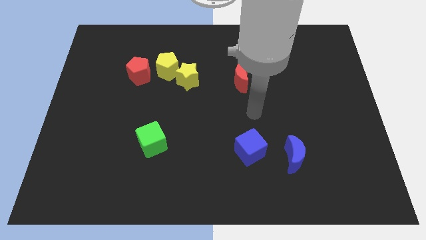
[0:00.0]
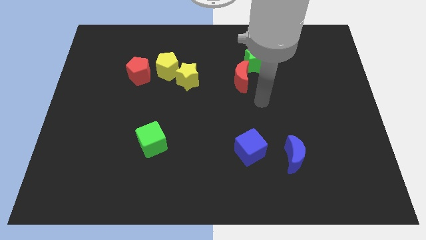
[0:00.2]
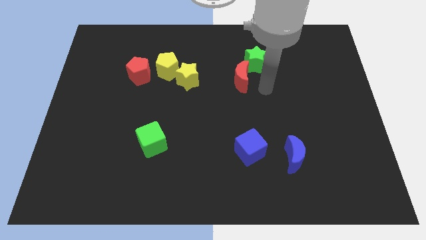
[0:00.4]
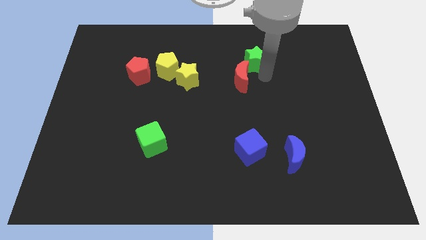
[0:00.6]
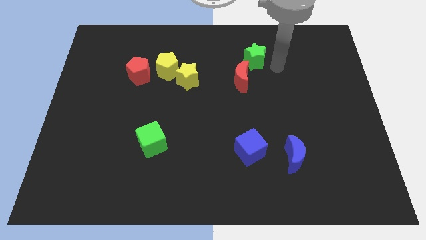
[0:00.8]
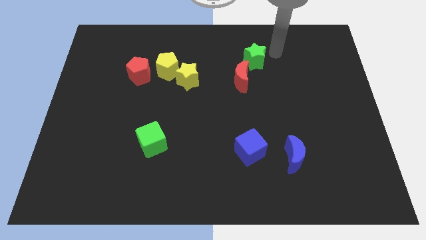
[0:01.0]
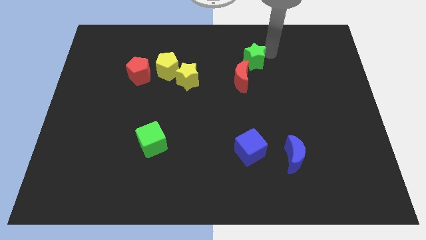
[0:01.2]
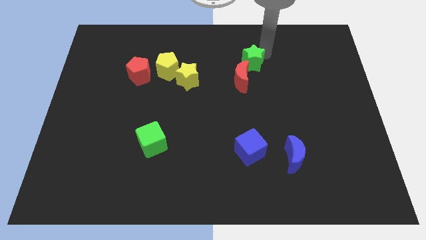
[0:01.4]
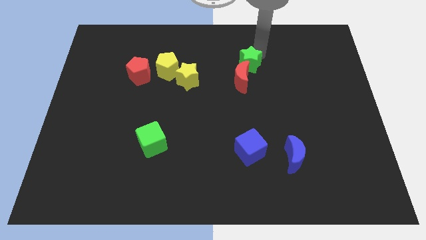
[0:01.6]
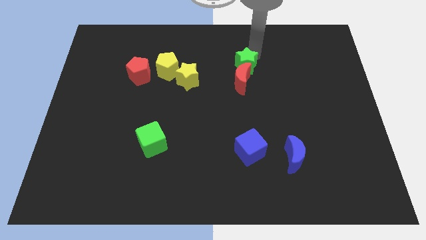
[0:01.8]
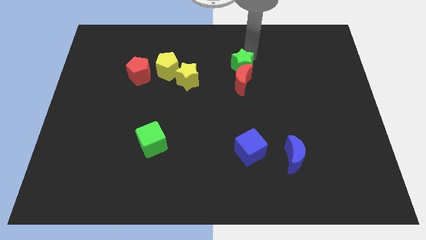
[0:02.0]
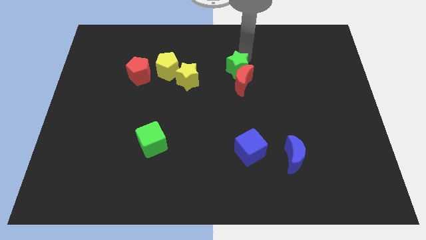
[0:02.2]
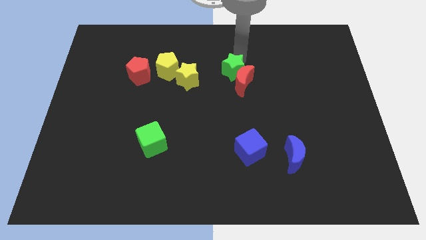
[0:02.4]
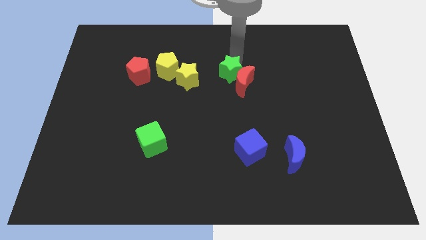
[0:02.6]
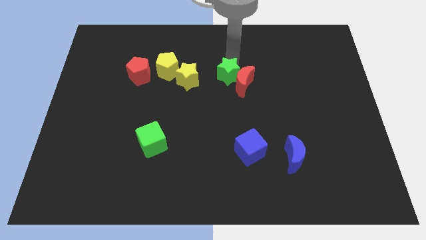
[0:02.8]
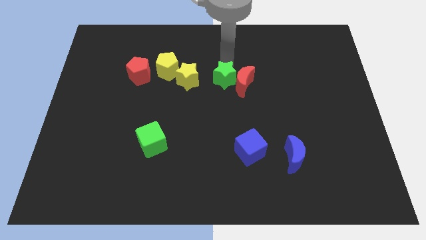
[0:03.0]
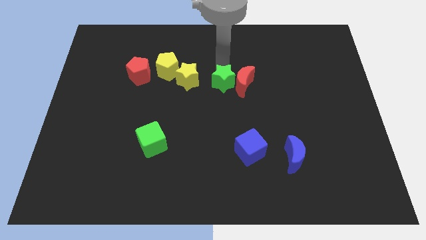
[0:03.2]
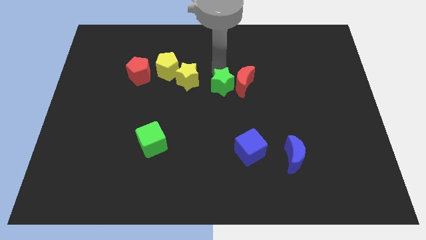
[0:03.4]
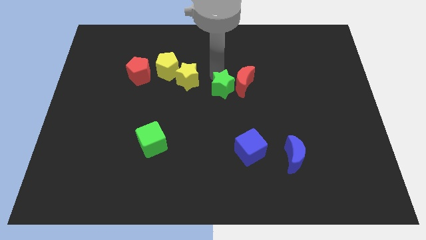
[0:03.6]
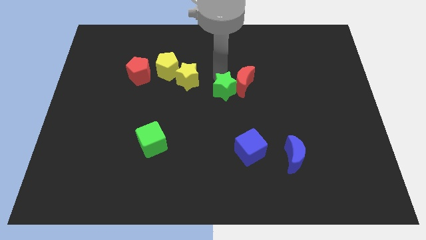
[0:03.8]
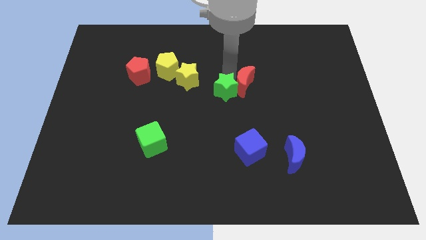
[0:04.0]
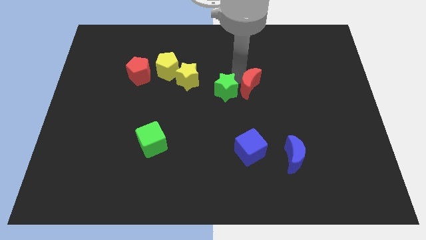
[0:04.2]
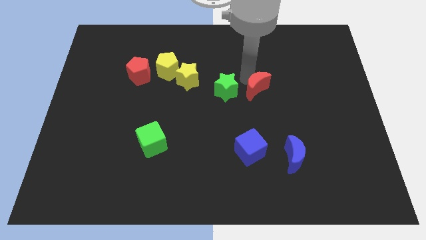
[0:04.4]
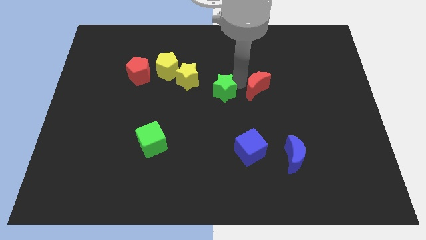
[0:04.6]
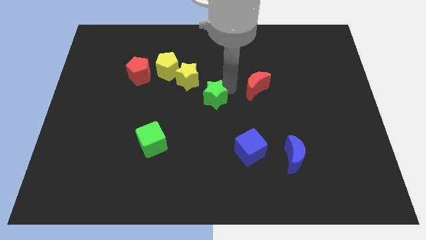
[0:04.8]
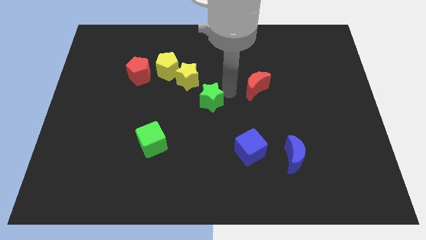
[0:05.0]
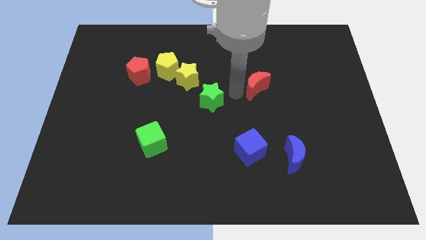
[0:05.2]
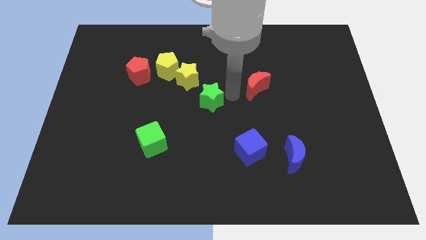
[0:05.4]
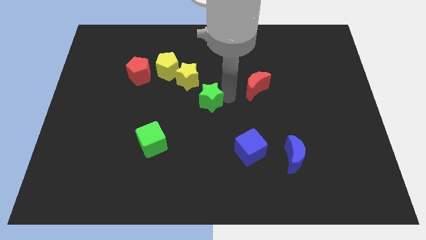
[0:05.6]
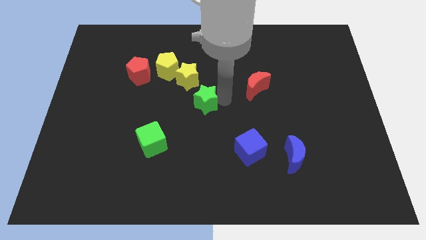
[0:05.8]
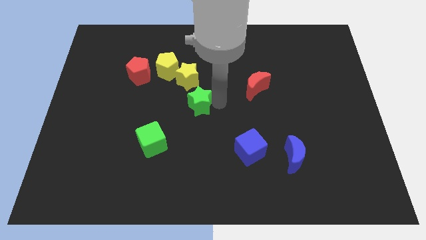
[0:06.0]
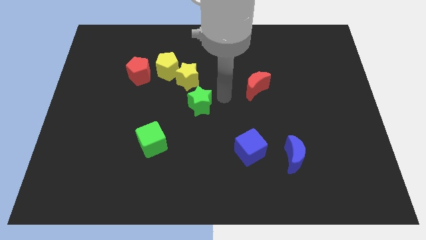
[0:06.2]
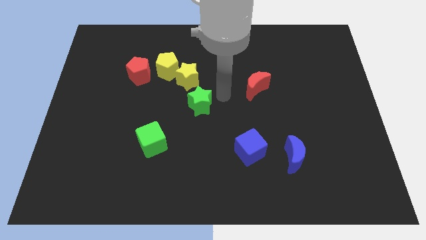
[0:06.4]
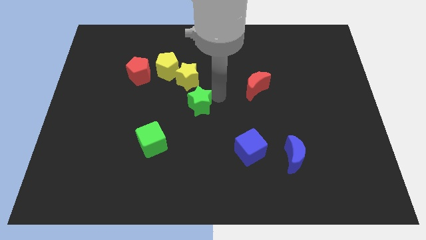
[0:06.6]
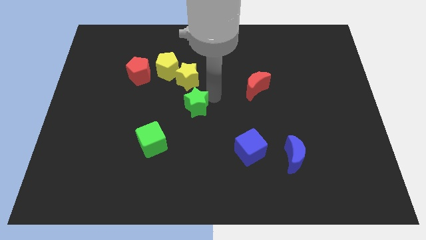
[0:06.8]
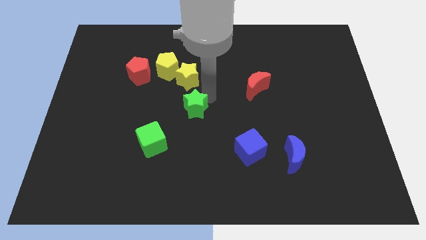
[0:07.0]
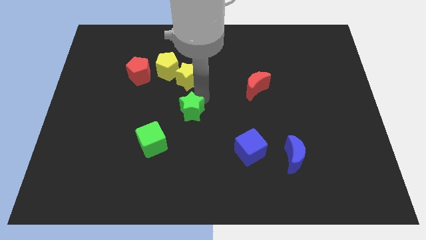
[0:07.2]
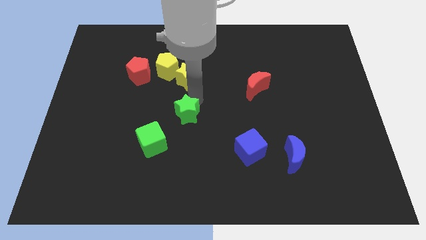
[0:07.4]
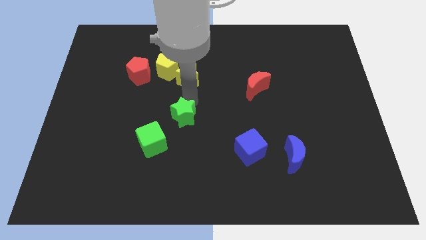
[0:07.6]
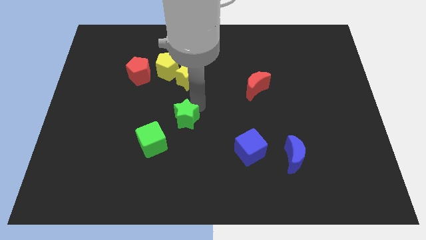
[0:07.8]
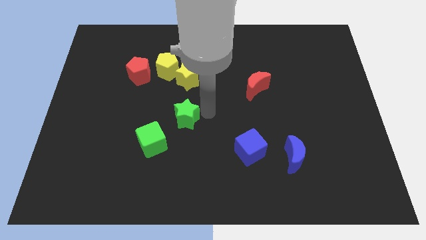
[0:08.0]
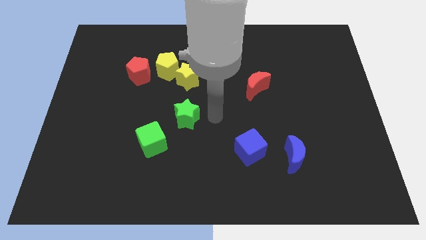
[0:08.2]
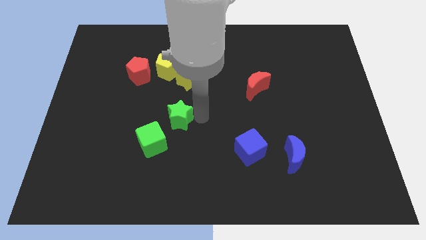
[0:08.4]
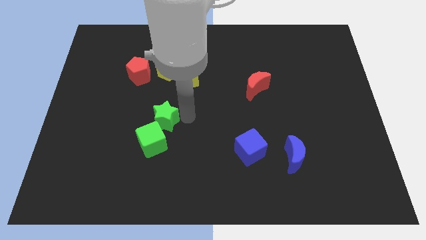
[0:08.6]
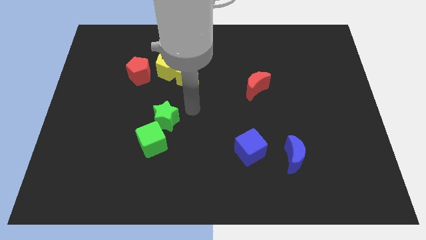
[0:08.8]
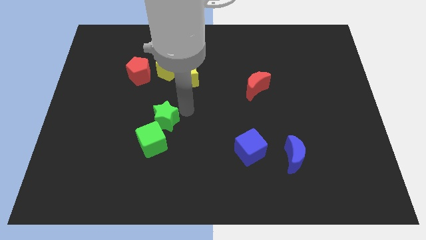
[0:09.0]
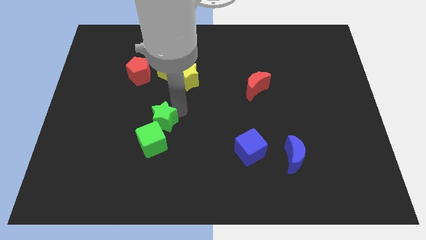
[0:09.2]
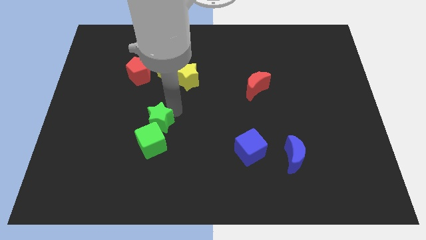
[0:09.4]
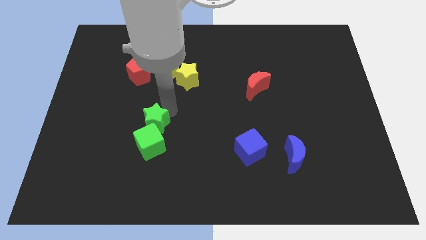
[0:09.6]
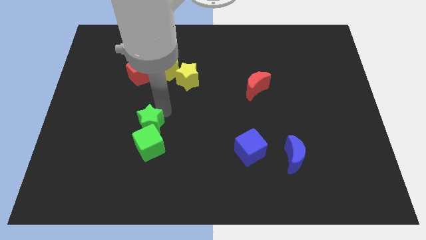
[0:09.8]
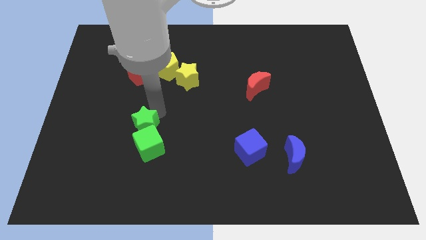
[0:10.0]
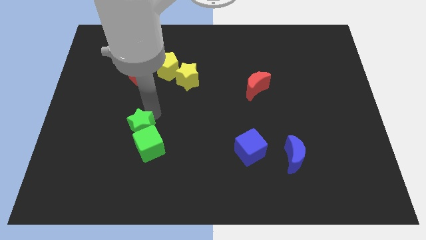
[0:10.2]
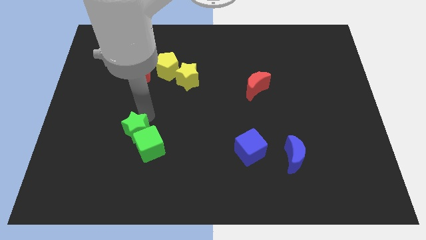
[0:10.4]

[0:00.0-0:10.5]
slide the green star left of the green cube

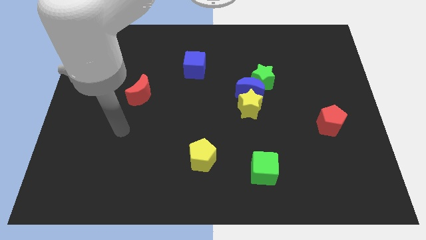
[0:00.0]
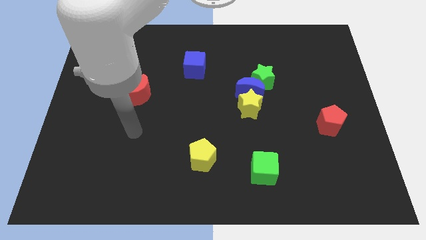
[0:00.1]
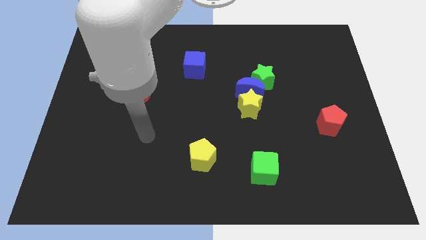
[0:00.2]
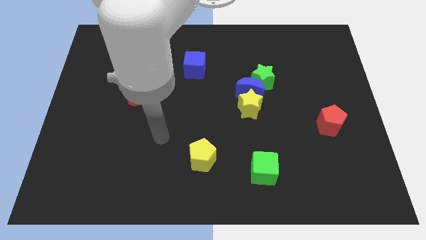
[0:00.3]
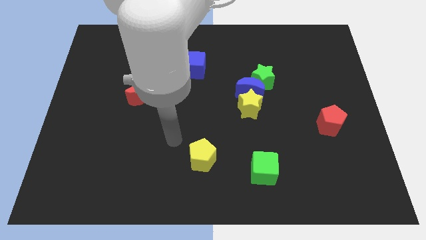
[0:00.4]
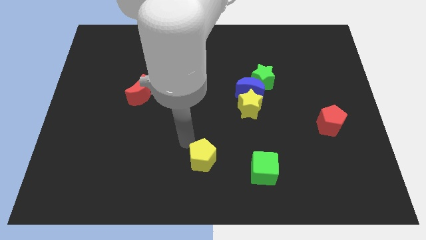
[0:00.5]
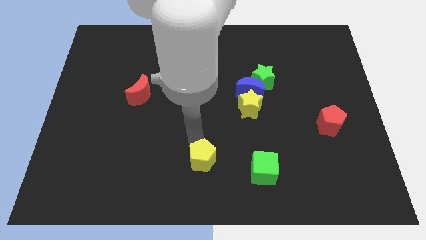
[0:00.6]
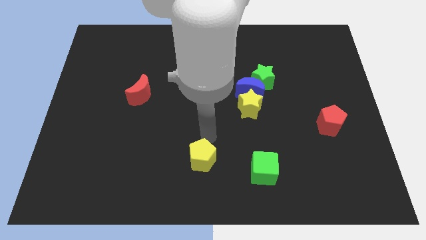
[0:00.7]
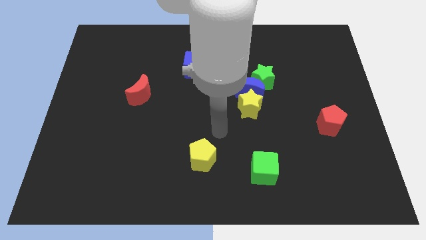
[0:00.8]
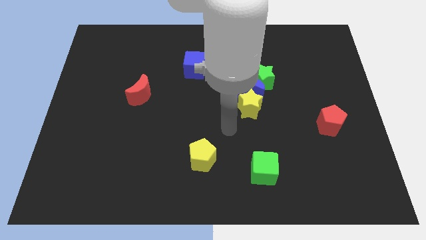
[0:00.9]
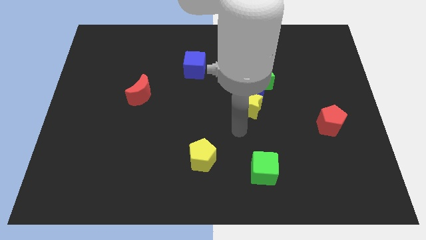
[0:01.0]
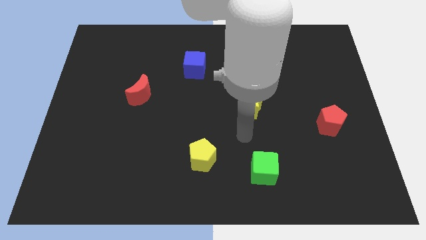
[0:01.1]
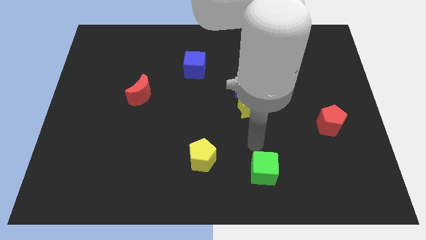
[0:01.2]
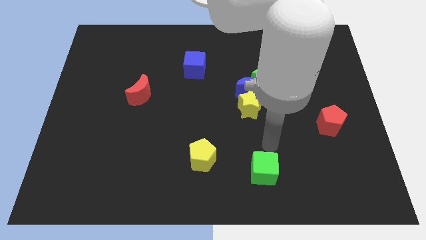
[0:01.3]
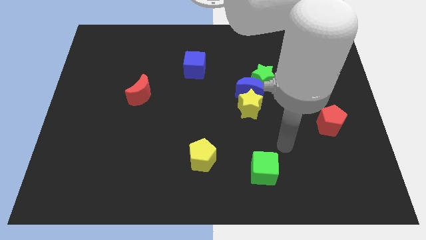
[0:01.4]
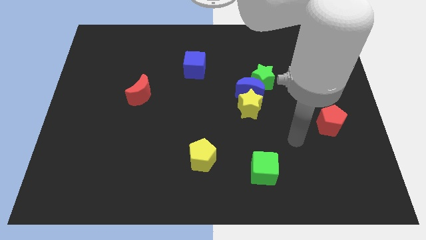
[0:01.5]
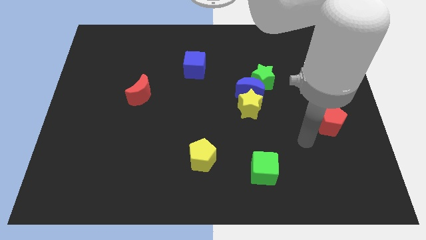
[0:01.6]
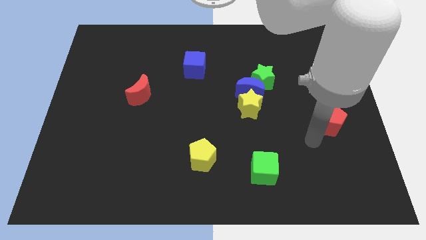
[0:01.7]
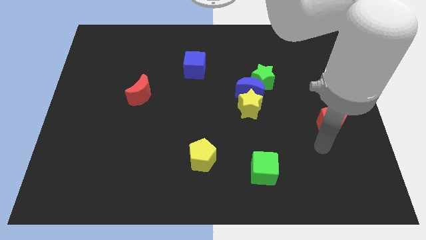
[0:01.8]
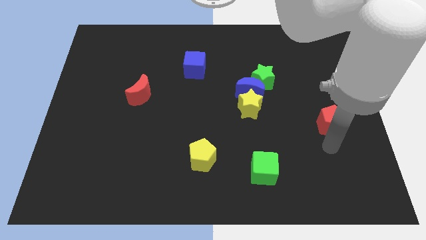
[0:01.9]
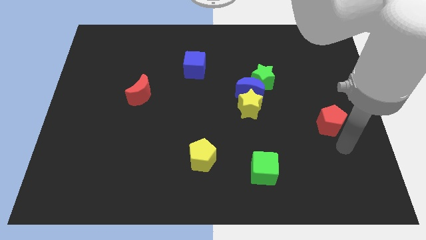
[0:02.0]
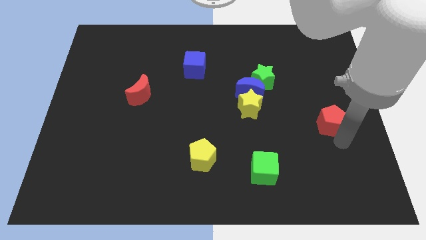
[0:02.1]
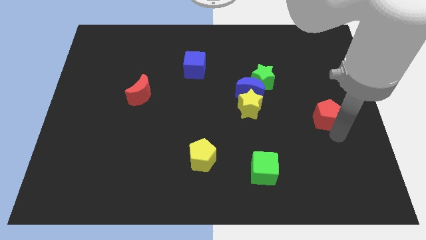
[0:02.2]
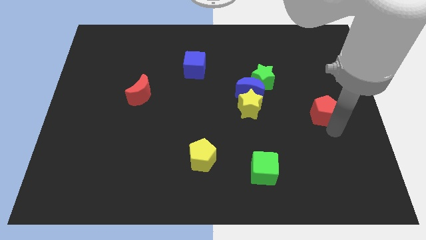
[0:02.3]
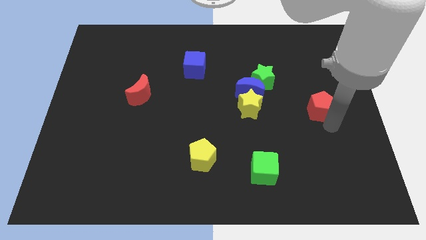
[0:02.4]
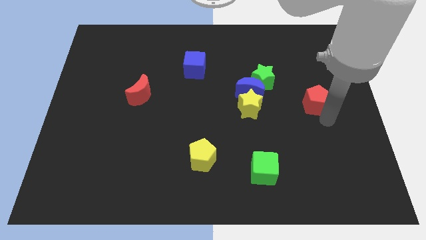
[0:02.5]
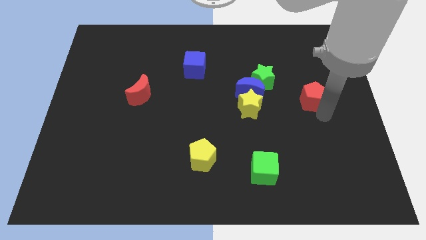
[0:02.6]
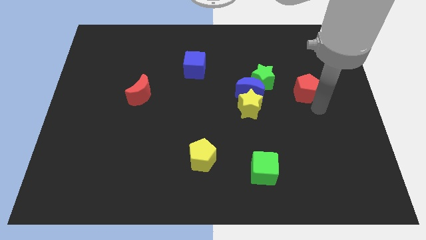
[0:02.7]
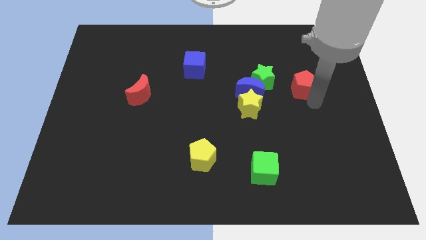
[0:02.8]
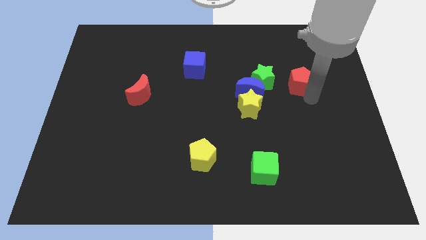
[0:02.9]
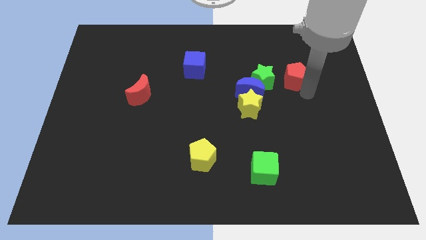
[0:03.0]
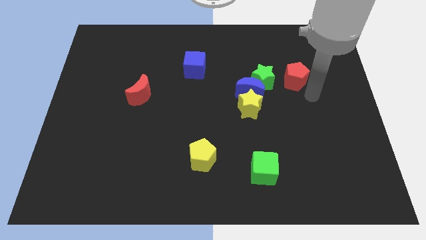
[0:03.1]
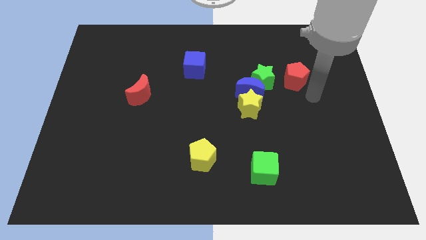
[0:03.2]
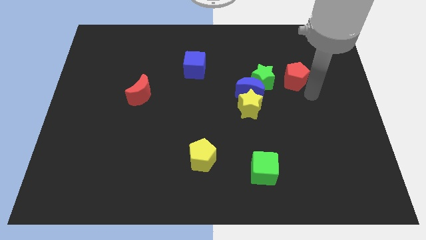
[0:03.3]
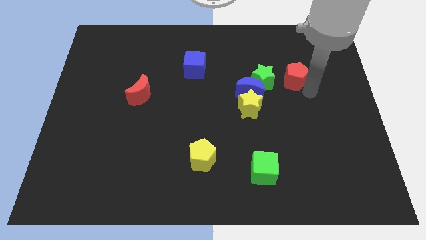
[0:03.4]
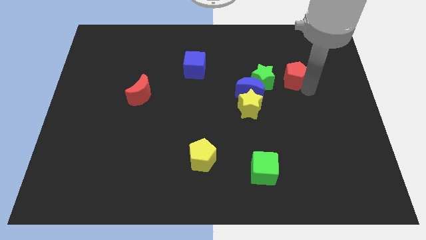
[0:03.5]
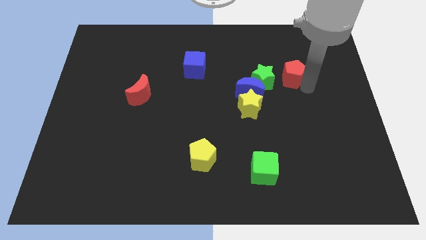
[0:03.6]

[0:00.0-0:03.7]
slide the red pentagon to the top right of the green star
